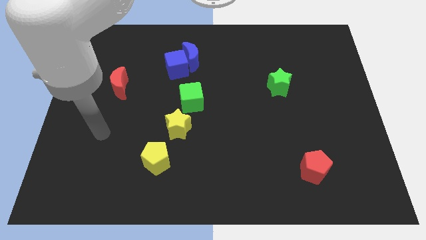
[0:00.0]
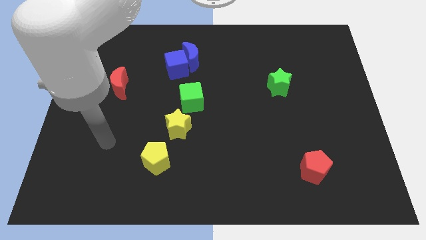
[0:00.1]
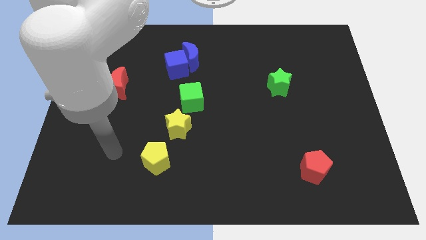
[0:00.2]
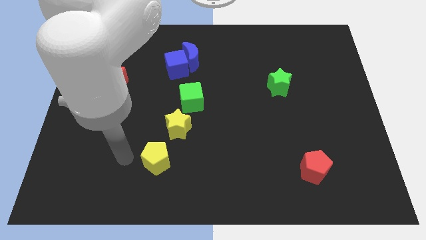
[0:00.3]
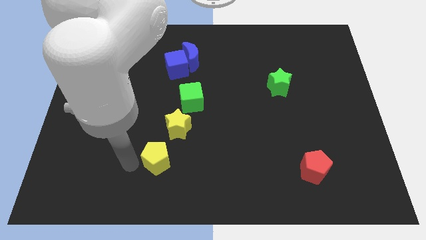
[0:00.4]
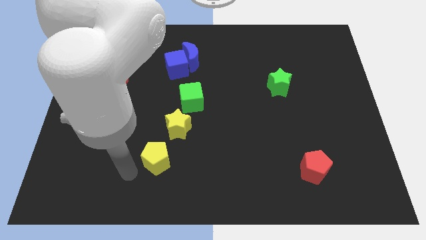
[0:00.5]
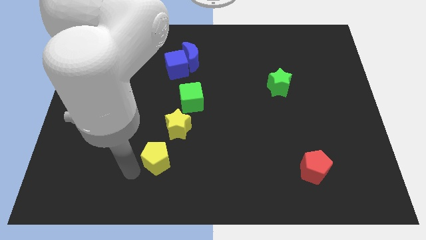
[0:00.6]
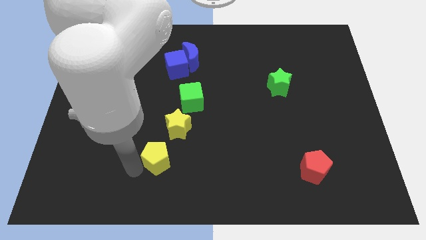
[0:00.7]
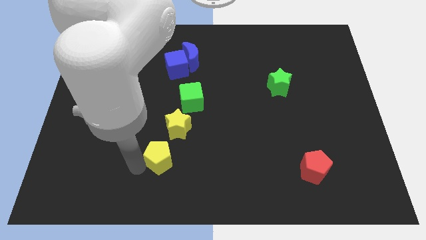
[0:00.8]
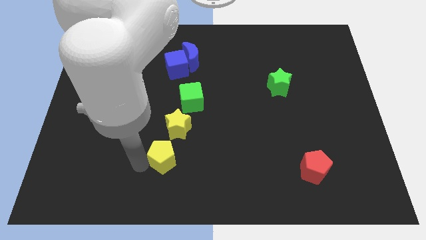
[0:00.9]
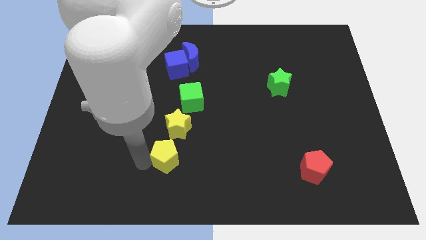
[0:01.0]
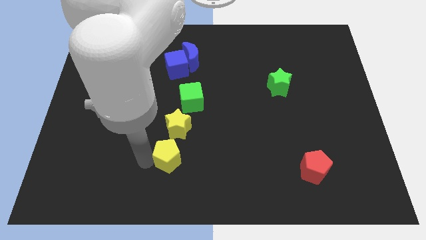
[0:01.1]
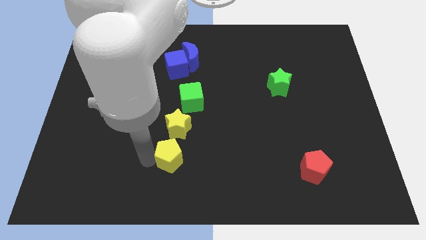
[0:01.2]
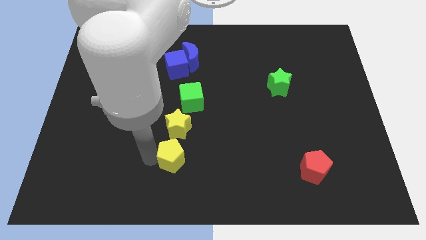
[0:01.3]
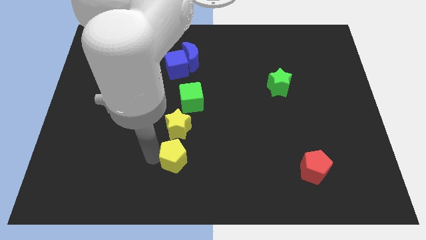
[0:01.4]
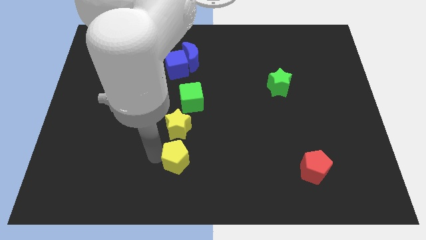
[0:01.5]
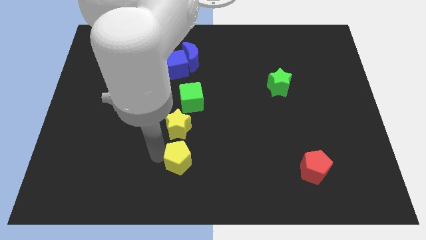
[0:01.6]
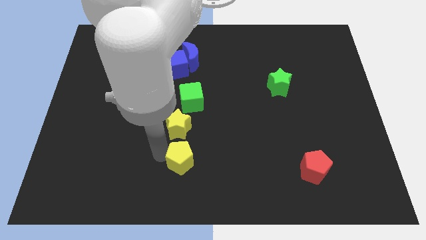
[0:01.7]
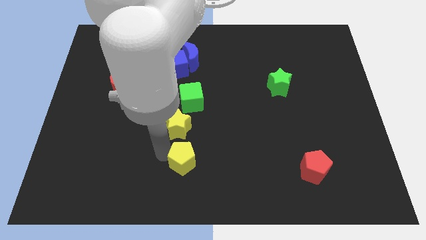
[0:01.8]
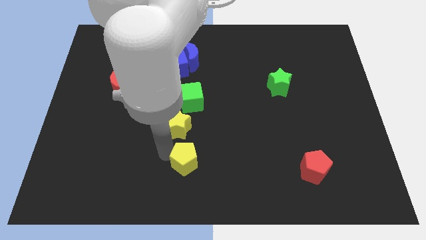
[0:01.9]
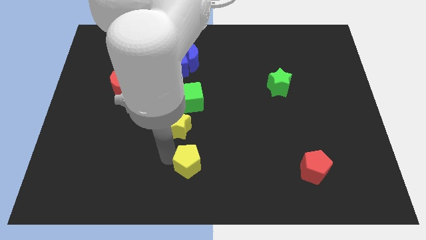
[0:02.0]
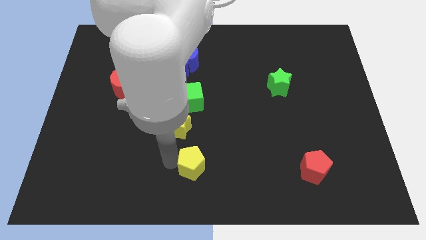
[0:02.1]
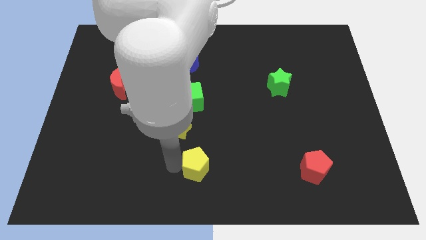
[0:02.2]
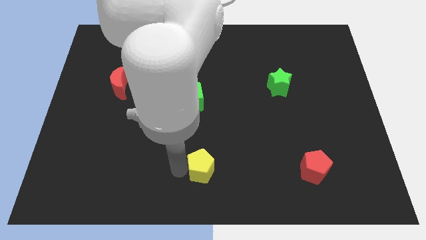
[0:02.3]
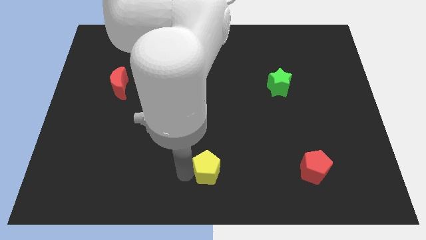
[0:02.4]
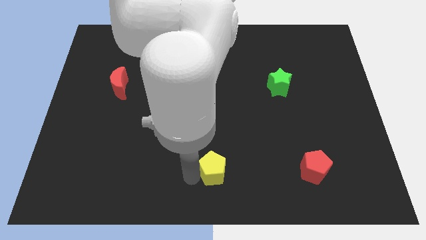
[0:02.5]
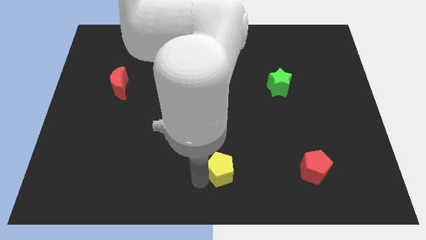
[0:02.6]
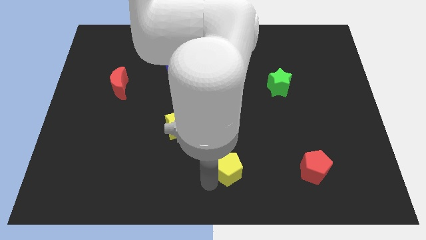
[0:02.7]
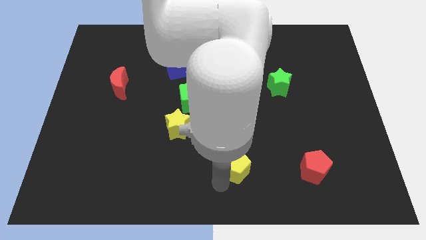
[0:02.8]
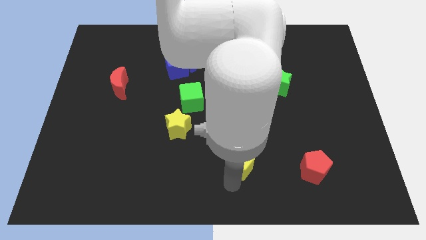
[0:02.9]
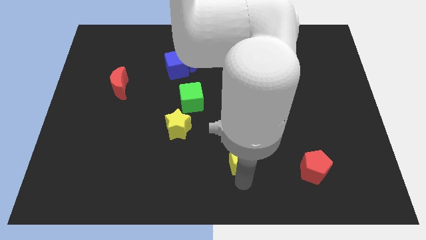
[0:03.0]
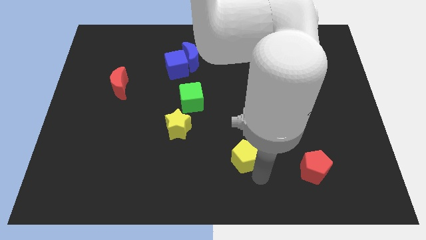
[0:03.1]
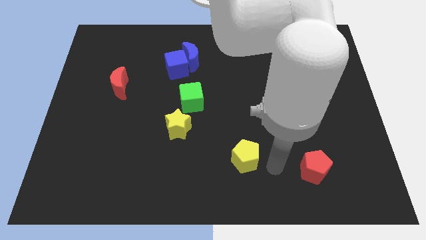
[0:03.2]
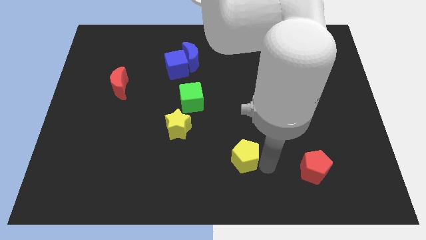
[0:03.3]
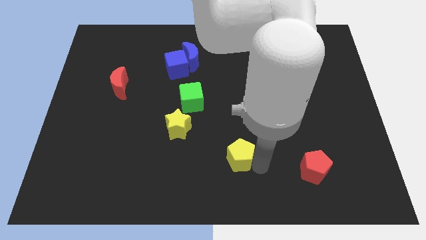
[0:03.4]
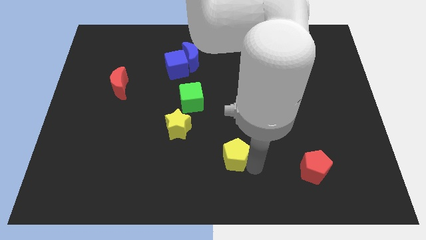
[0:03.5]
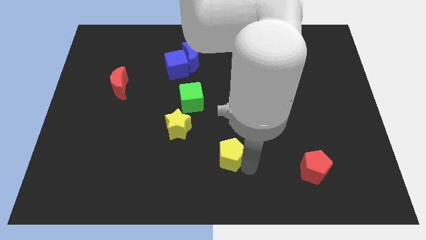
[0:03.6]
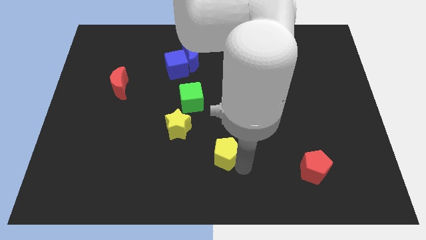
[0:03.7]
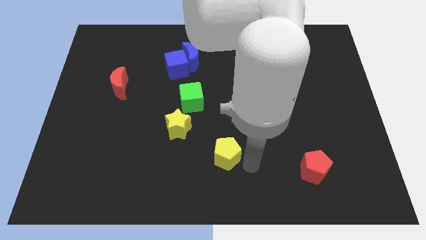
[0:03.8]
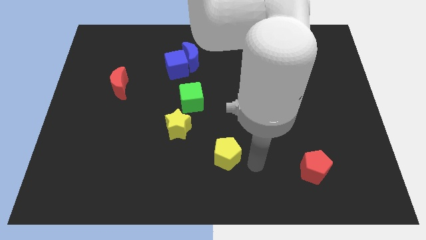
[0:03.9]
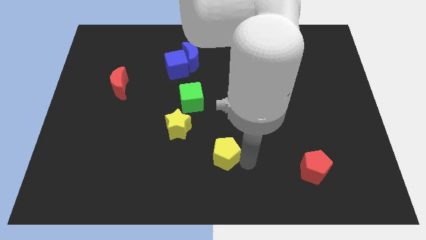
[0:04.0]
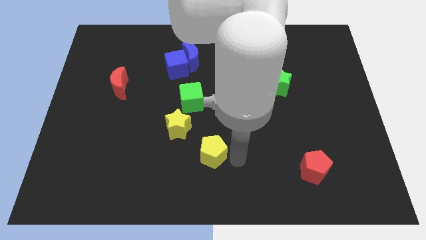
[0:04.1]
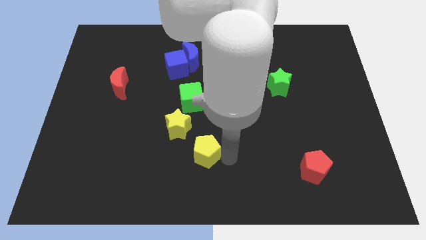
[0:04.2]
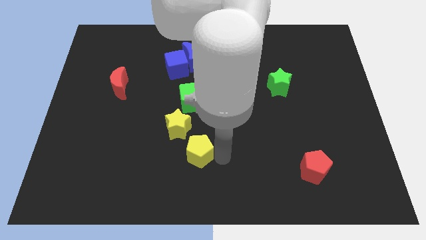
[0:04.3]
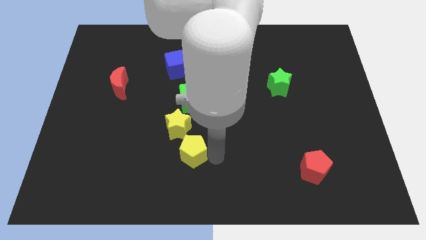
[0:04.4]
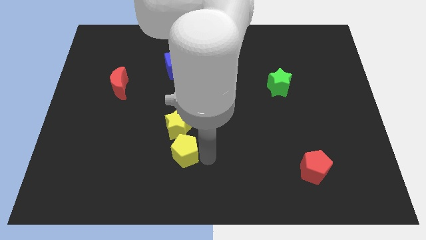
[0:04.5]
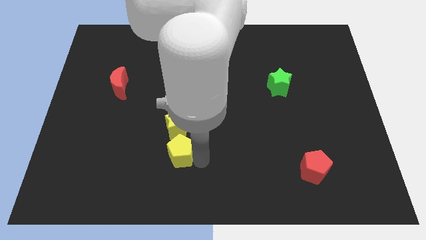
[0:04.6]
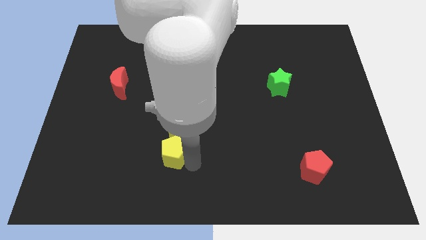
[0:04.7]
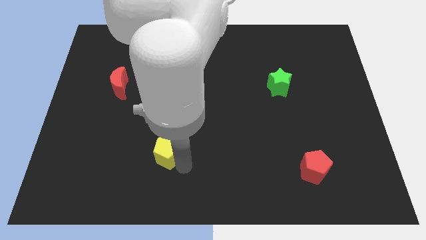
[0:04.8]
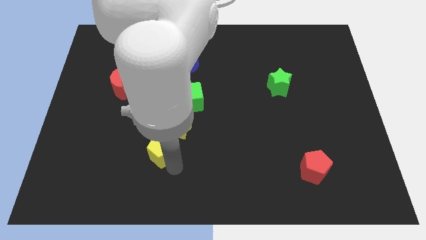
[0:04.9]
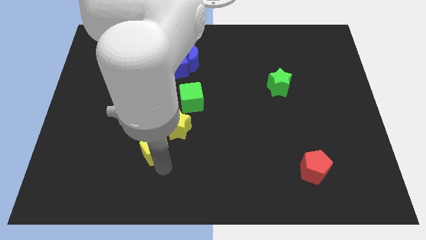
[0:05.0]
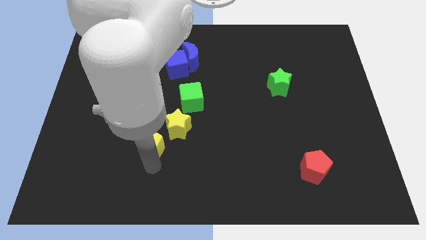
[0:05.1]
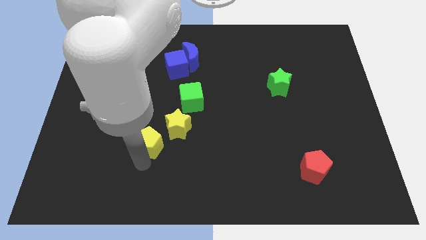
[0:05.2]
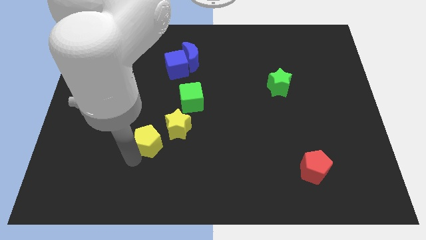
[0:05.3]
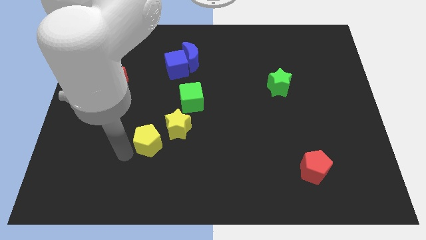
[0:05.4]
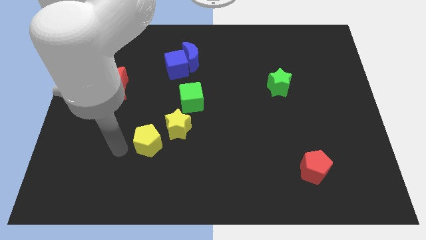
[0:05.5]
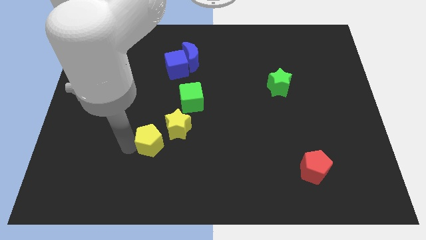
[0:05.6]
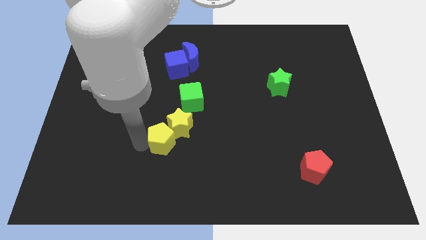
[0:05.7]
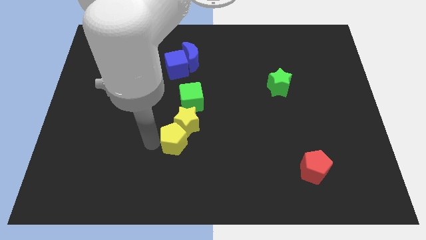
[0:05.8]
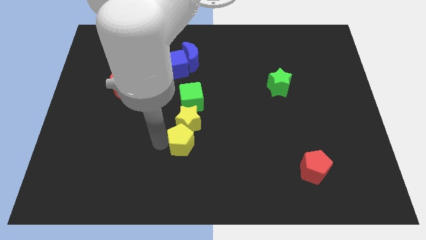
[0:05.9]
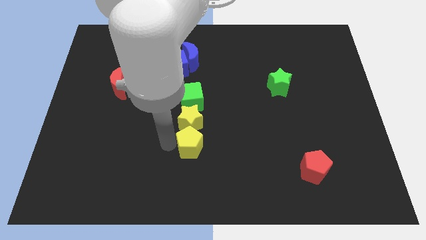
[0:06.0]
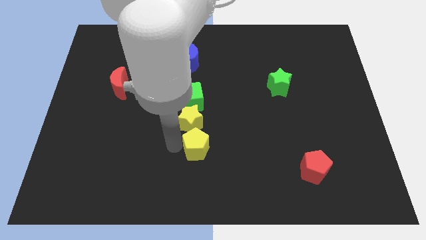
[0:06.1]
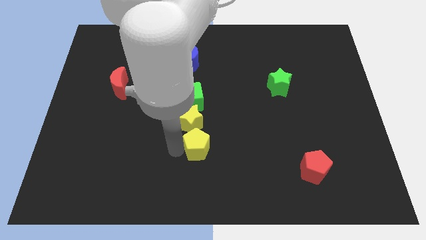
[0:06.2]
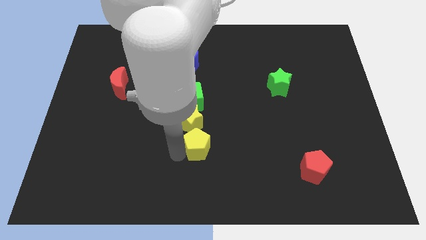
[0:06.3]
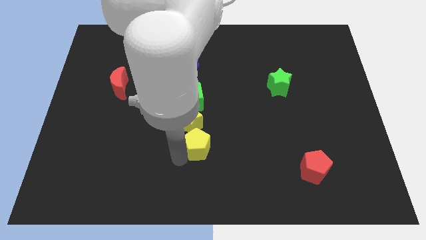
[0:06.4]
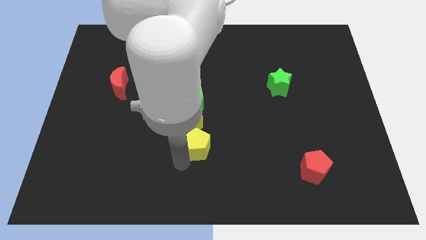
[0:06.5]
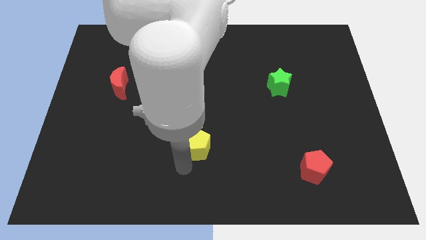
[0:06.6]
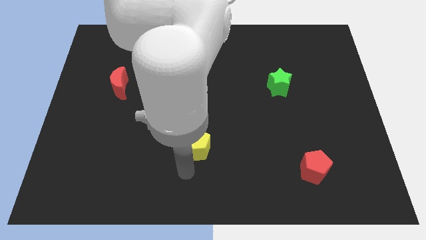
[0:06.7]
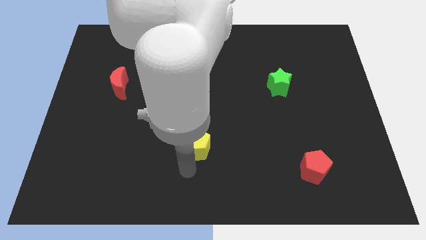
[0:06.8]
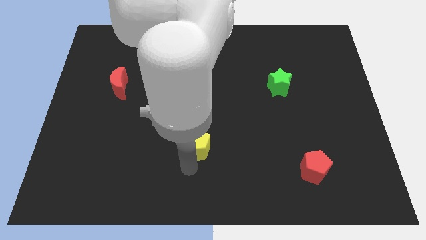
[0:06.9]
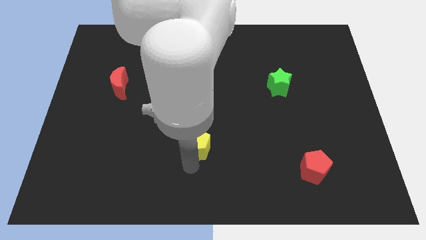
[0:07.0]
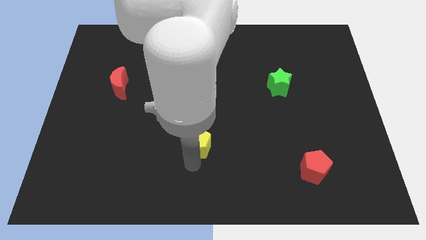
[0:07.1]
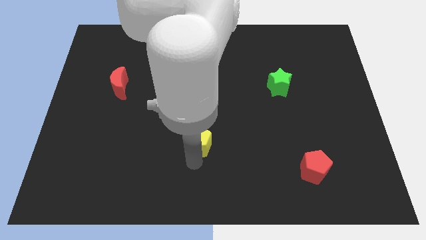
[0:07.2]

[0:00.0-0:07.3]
put the yellow pentagon to the middle
